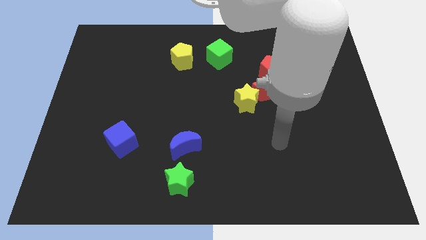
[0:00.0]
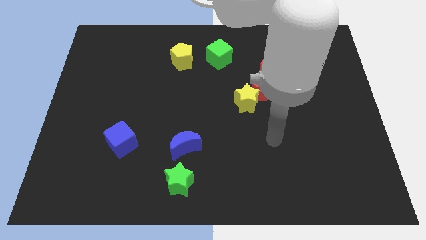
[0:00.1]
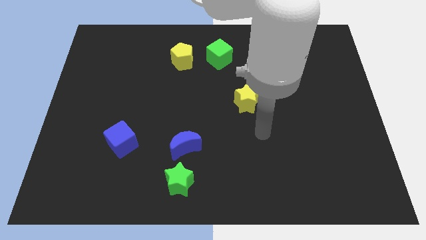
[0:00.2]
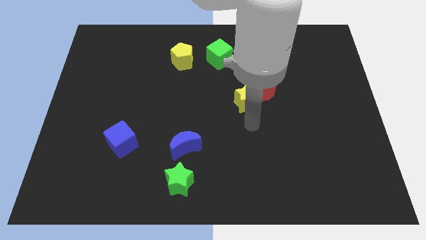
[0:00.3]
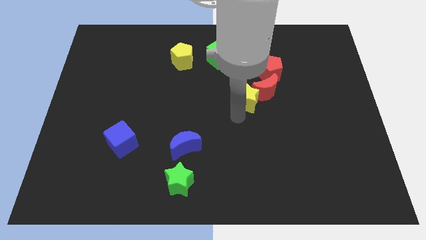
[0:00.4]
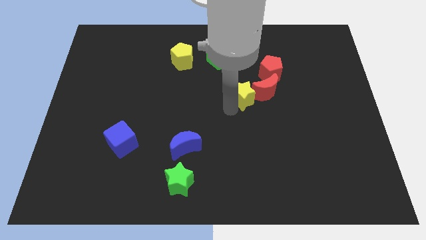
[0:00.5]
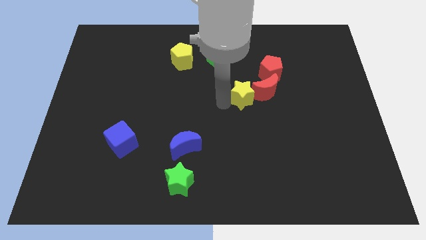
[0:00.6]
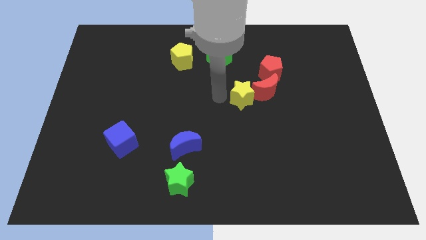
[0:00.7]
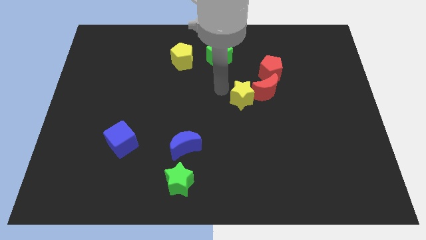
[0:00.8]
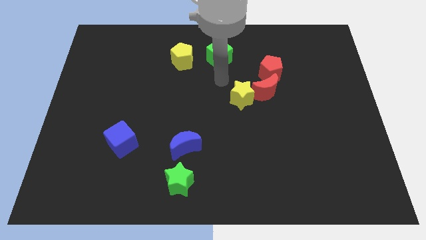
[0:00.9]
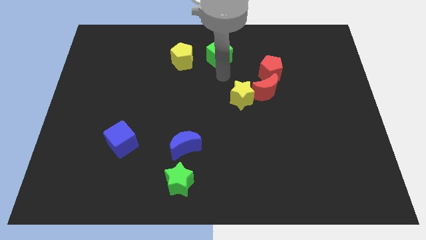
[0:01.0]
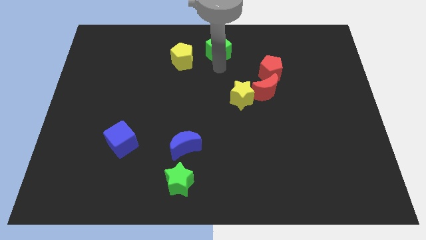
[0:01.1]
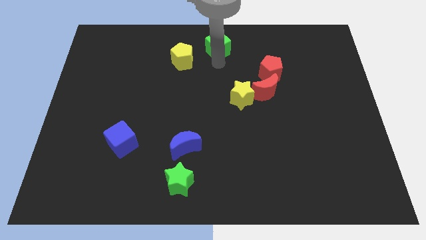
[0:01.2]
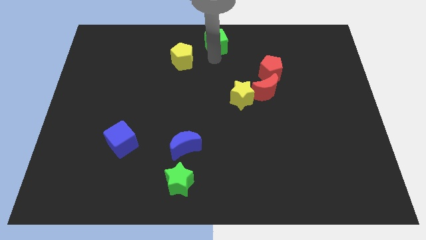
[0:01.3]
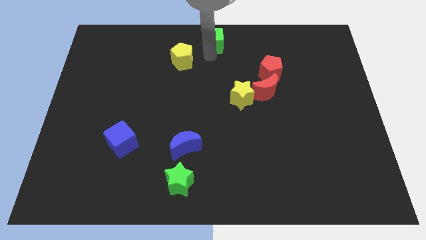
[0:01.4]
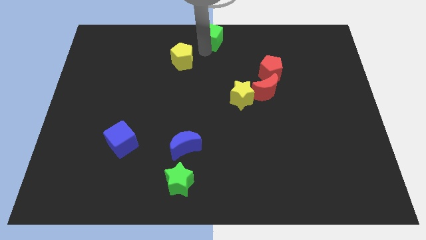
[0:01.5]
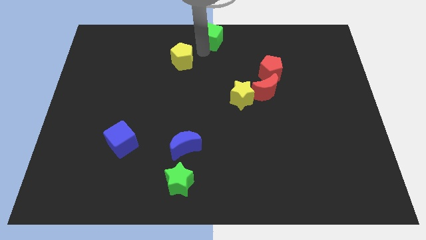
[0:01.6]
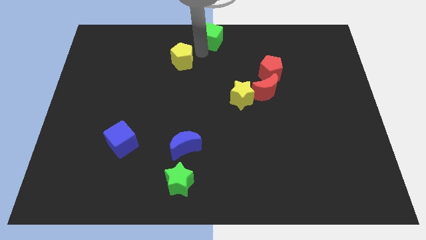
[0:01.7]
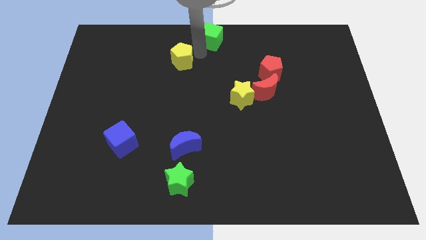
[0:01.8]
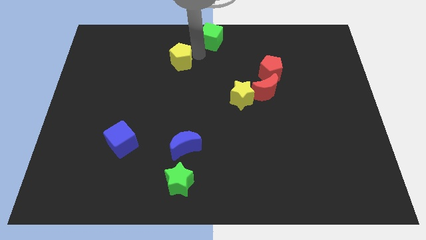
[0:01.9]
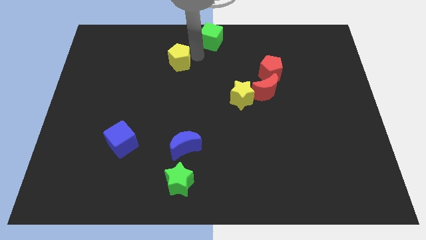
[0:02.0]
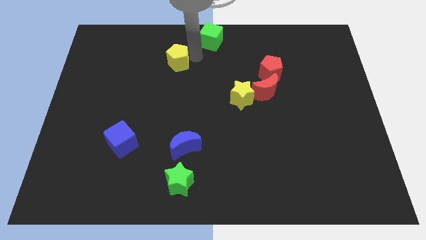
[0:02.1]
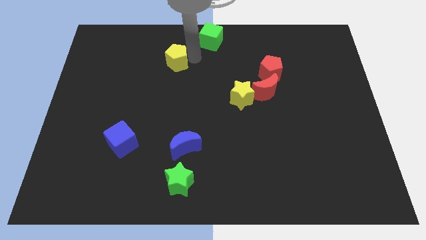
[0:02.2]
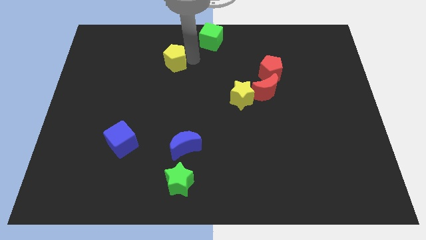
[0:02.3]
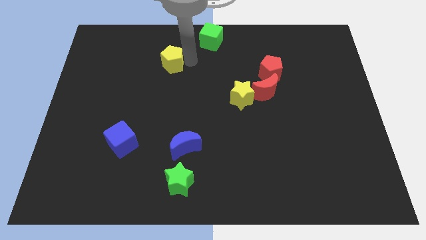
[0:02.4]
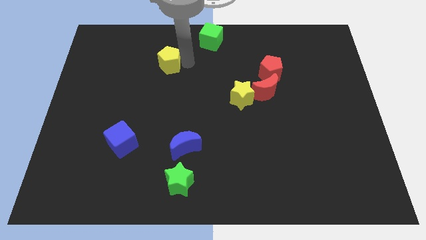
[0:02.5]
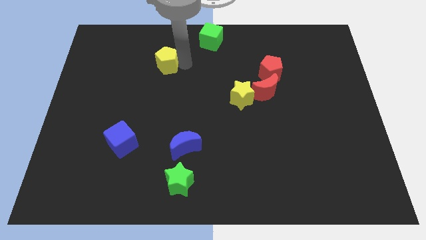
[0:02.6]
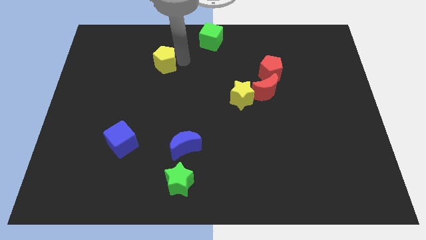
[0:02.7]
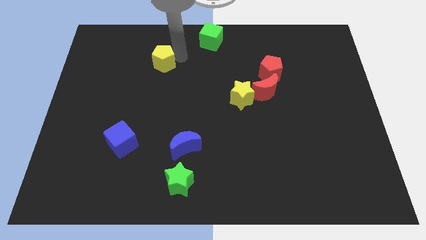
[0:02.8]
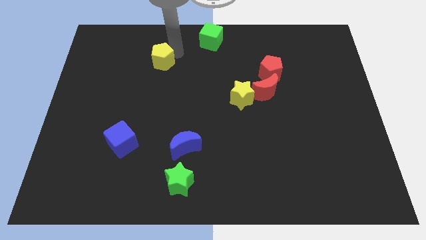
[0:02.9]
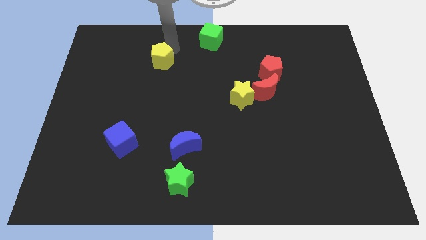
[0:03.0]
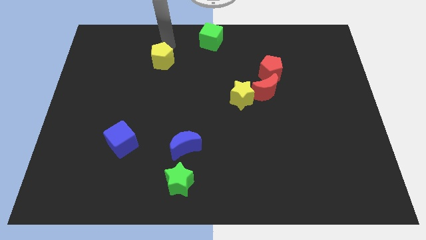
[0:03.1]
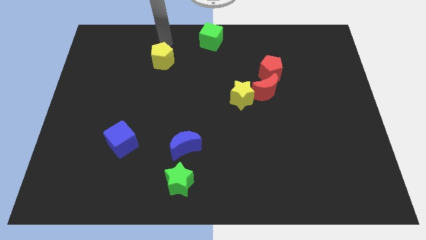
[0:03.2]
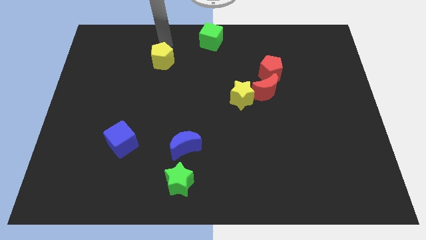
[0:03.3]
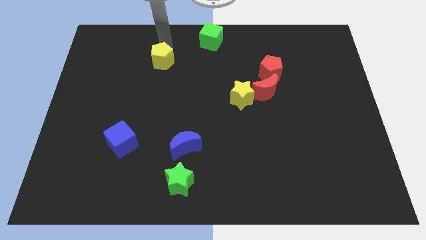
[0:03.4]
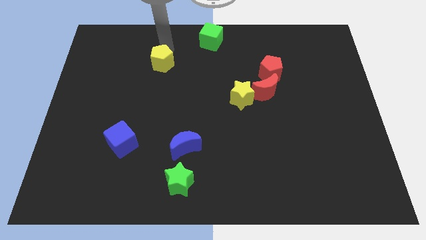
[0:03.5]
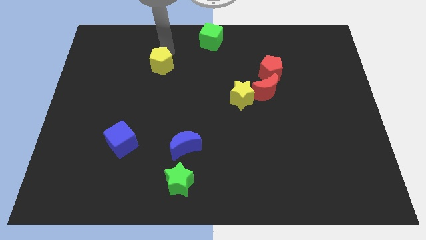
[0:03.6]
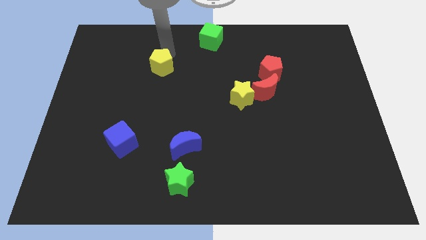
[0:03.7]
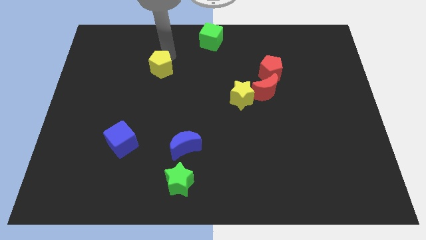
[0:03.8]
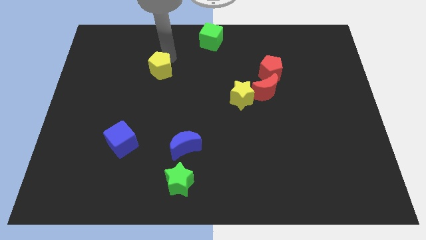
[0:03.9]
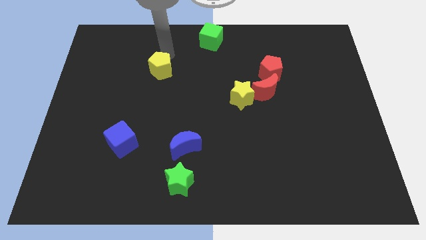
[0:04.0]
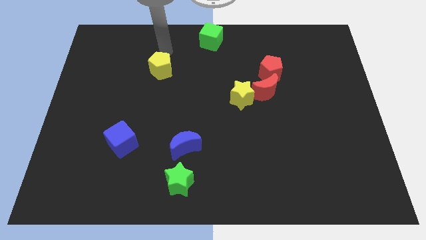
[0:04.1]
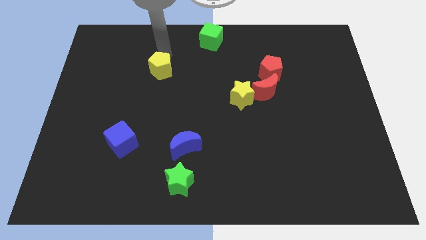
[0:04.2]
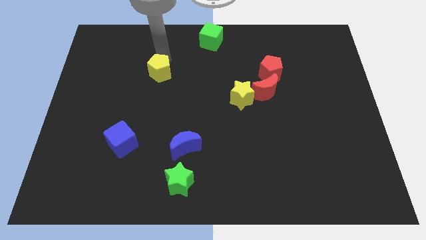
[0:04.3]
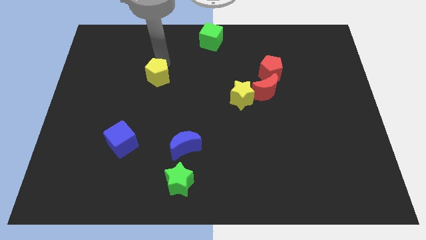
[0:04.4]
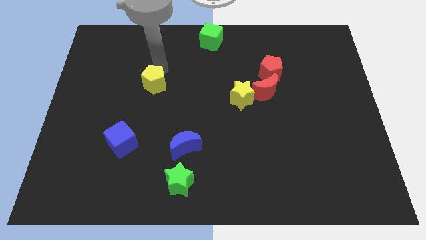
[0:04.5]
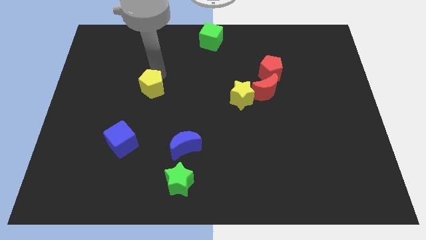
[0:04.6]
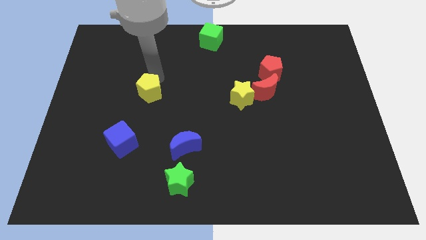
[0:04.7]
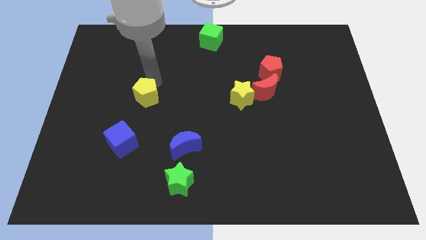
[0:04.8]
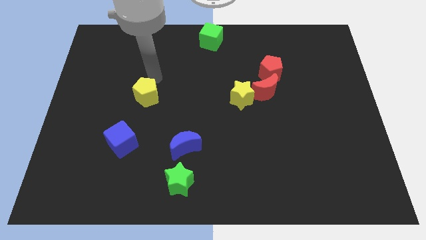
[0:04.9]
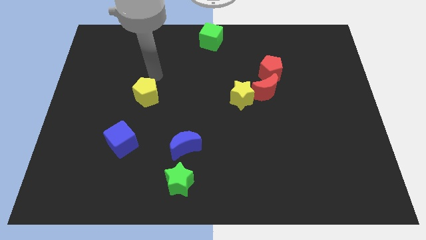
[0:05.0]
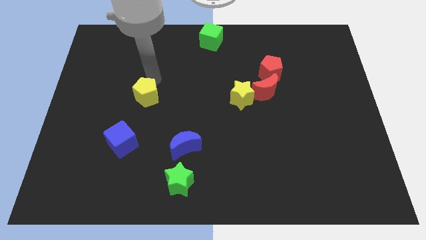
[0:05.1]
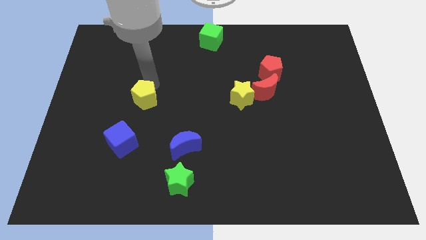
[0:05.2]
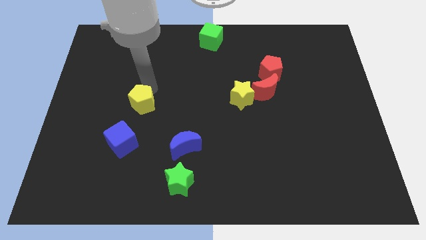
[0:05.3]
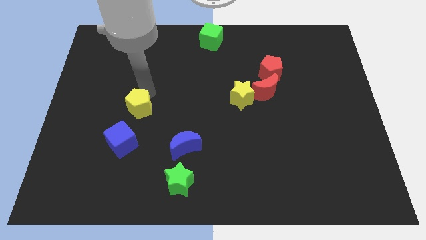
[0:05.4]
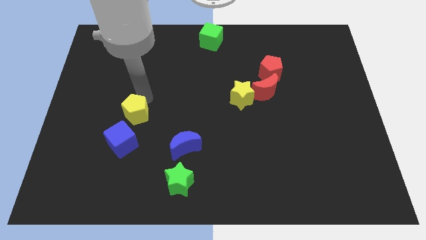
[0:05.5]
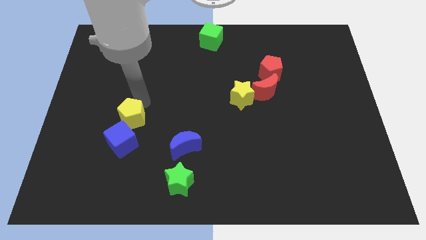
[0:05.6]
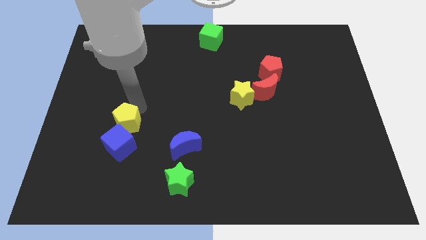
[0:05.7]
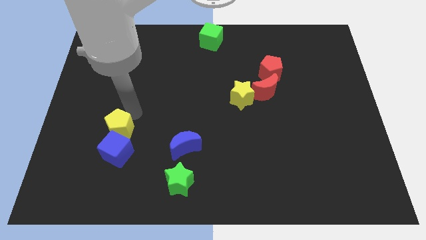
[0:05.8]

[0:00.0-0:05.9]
slide the yellow pentagon next to the blue cube

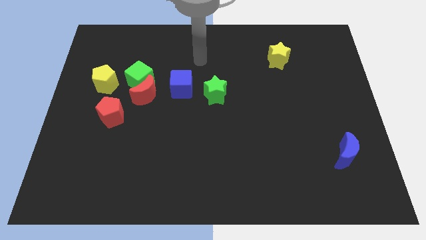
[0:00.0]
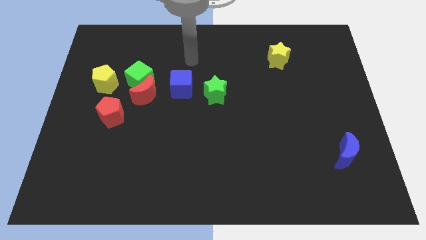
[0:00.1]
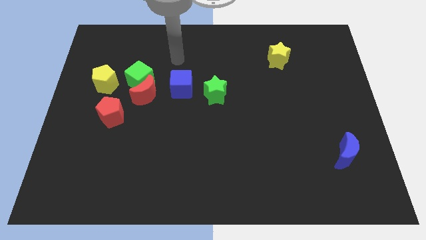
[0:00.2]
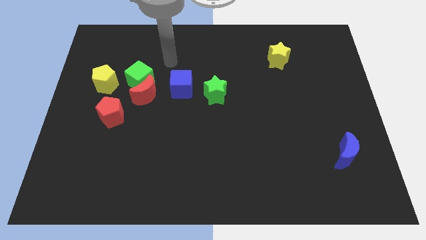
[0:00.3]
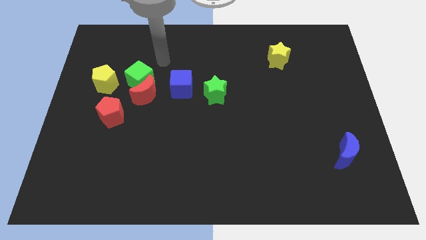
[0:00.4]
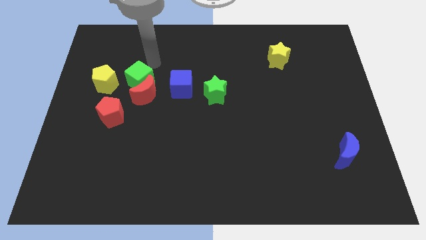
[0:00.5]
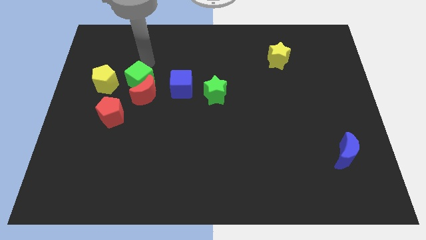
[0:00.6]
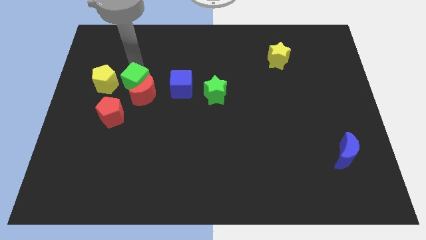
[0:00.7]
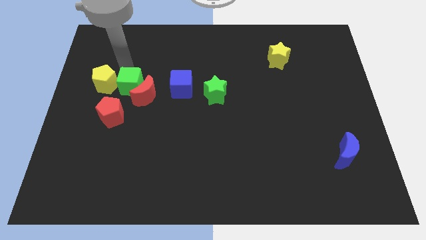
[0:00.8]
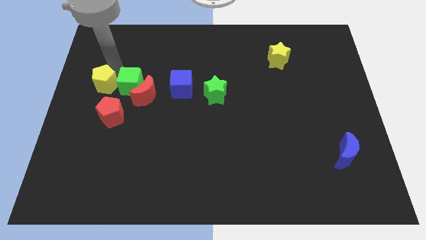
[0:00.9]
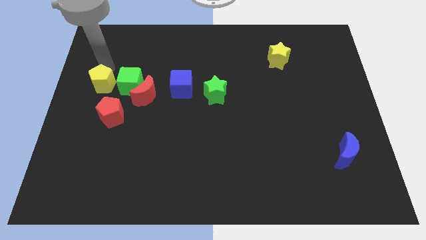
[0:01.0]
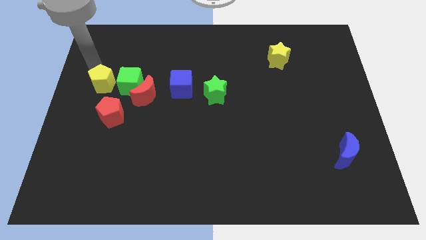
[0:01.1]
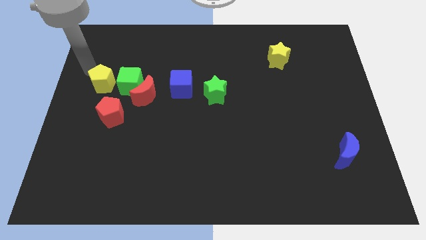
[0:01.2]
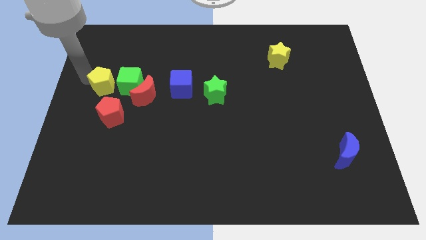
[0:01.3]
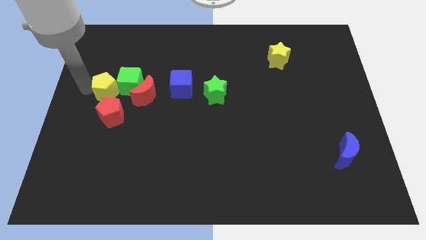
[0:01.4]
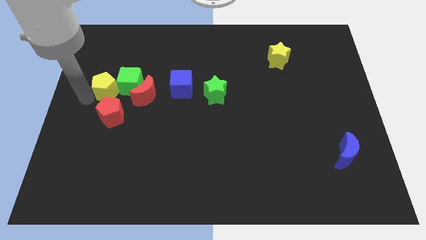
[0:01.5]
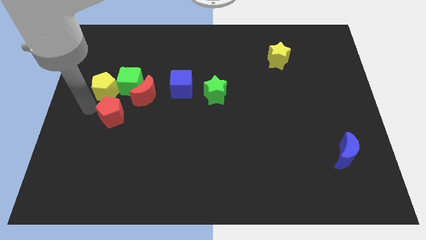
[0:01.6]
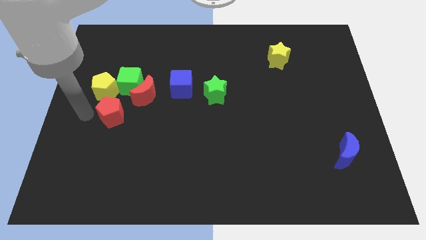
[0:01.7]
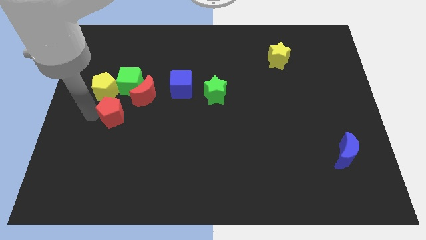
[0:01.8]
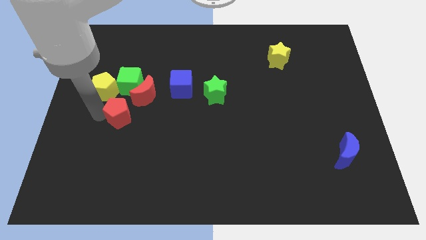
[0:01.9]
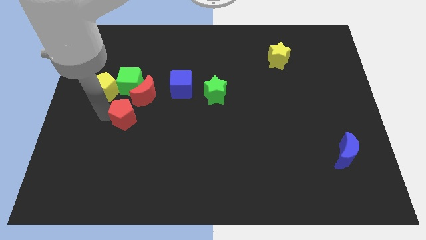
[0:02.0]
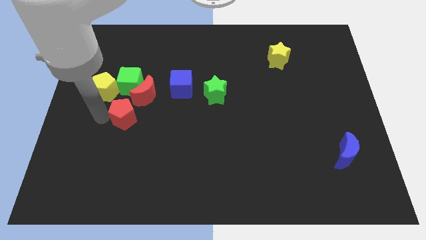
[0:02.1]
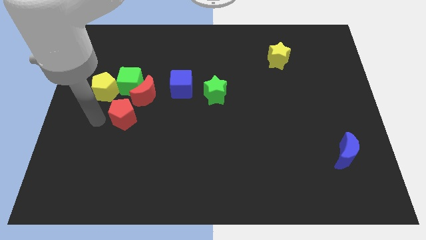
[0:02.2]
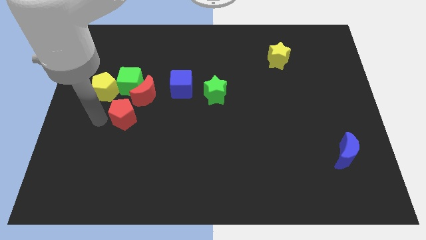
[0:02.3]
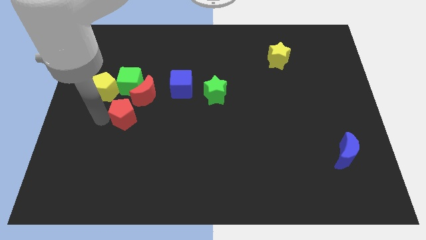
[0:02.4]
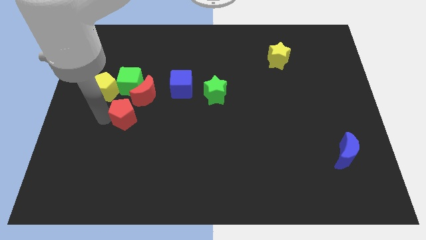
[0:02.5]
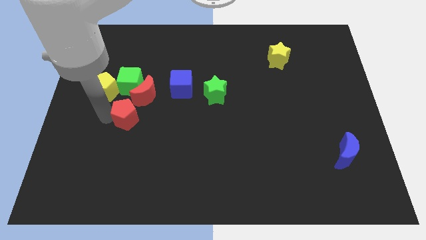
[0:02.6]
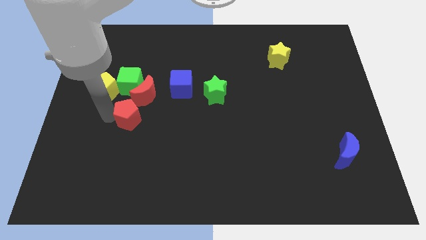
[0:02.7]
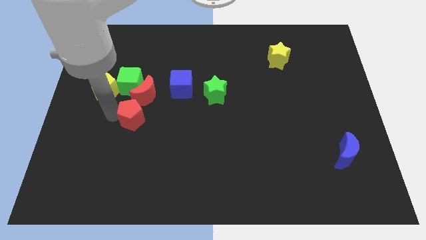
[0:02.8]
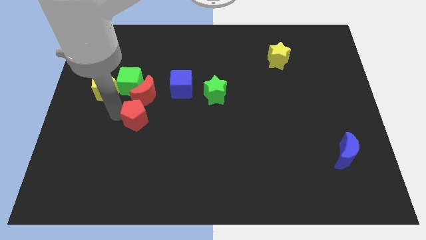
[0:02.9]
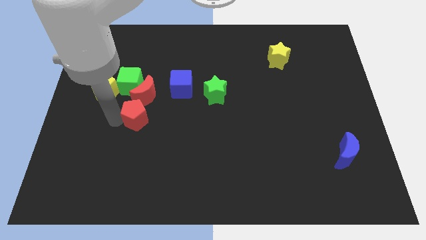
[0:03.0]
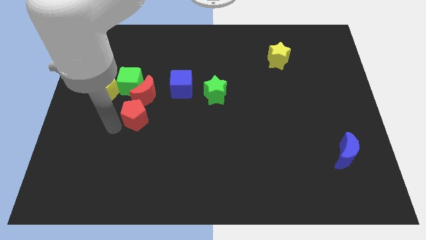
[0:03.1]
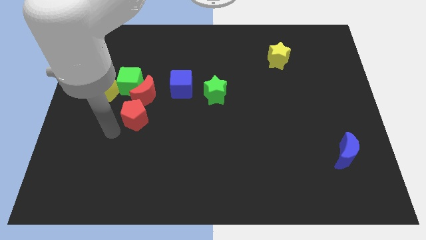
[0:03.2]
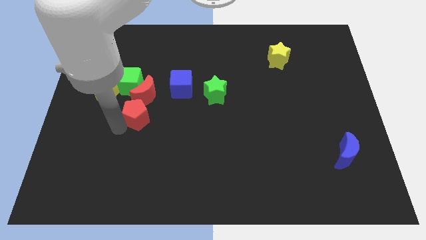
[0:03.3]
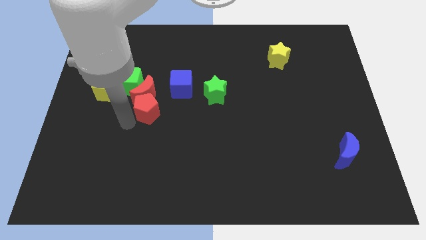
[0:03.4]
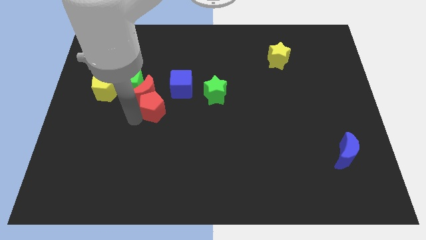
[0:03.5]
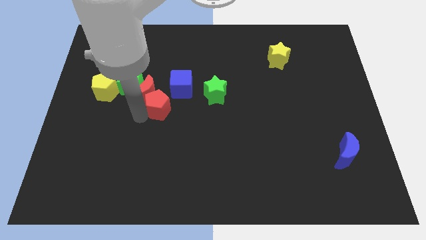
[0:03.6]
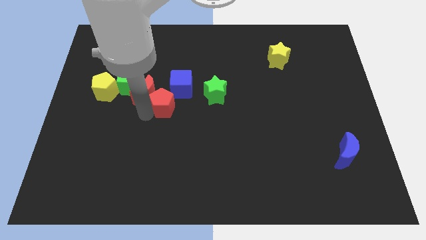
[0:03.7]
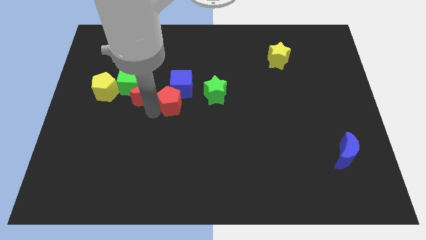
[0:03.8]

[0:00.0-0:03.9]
put the red pentagon towards the blue cube
